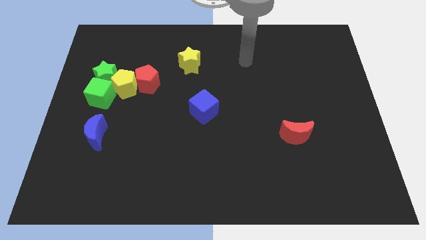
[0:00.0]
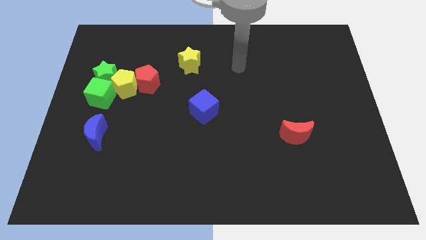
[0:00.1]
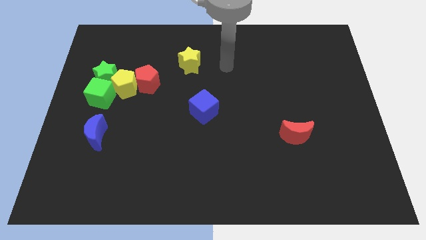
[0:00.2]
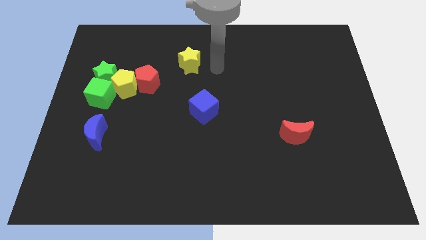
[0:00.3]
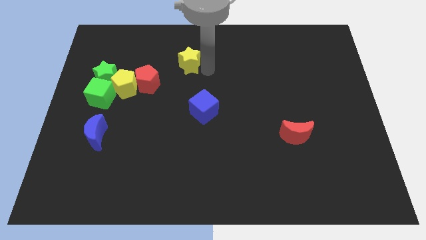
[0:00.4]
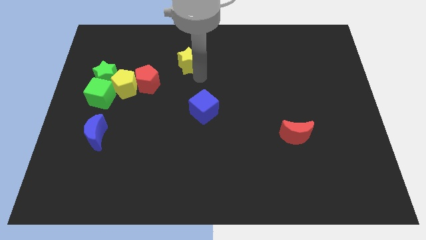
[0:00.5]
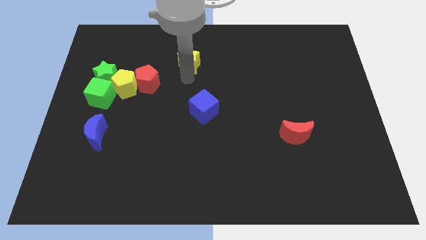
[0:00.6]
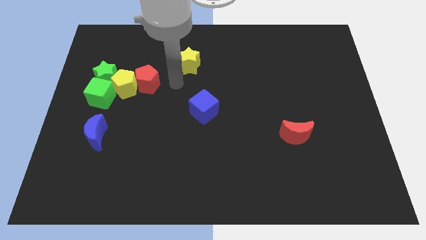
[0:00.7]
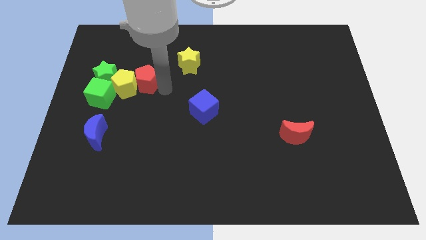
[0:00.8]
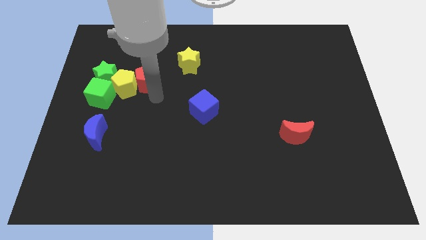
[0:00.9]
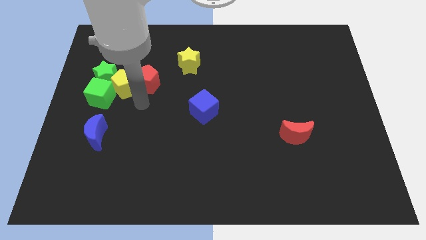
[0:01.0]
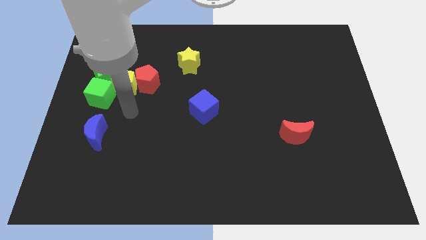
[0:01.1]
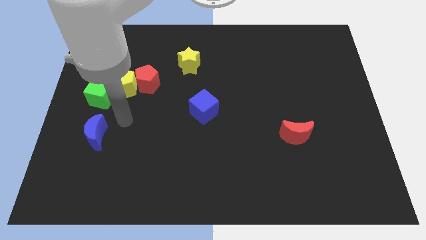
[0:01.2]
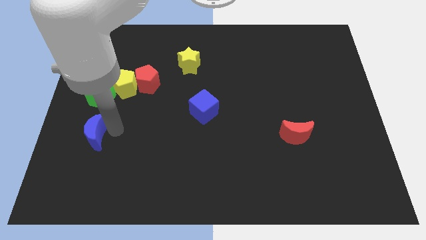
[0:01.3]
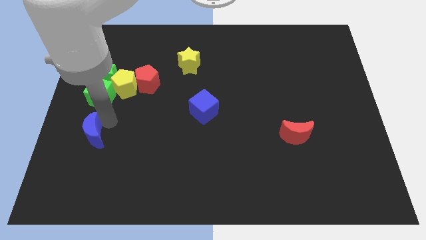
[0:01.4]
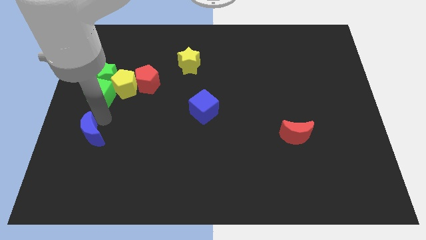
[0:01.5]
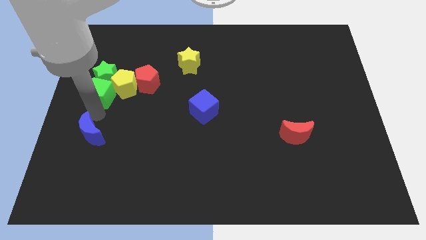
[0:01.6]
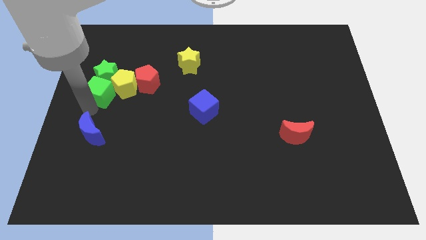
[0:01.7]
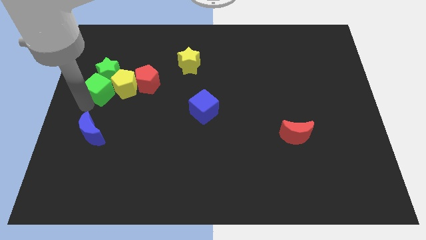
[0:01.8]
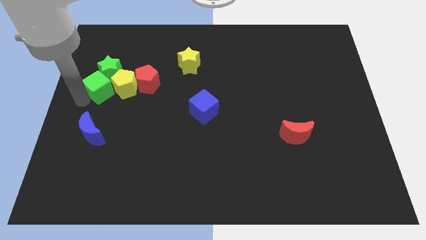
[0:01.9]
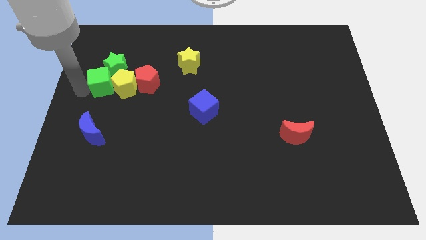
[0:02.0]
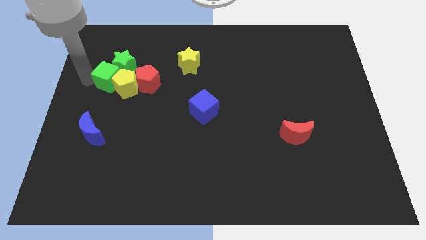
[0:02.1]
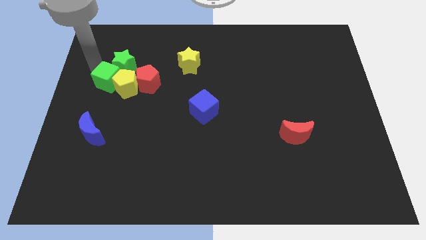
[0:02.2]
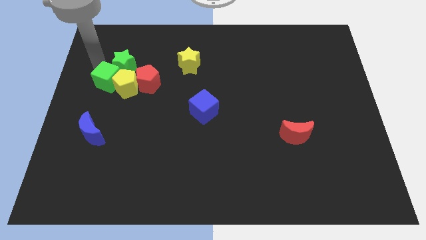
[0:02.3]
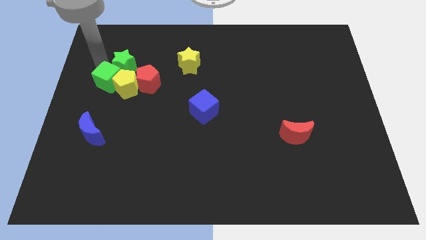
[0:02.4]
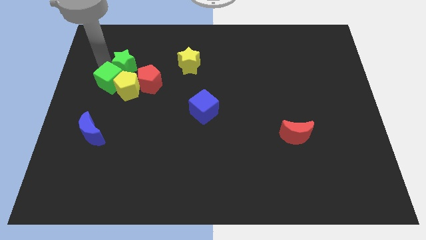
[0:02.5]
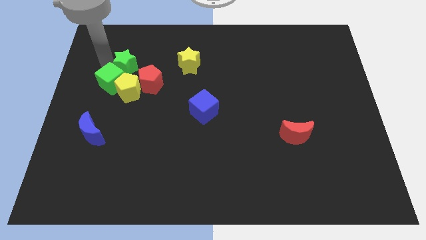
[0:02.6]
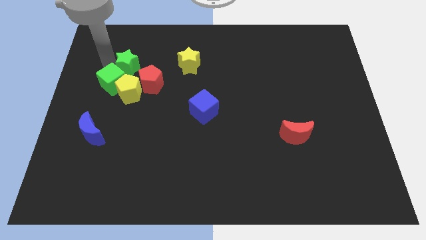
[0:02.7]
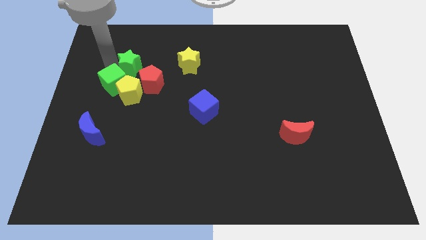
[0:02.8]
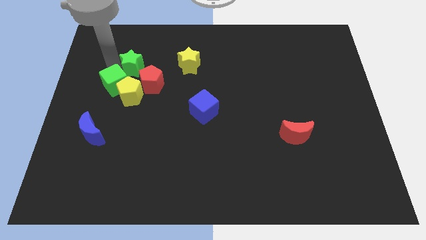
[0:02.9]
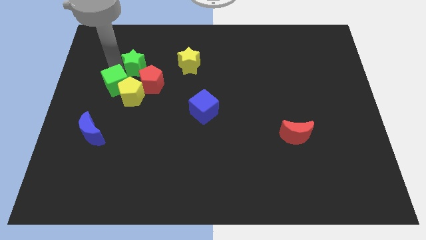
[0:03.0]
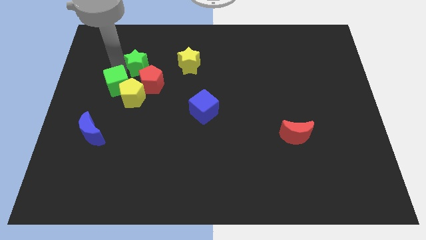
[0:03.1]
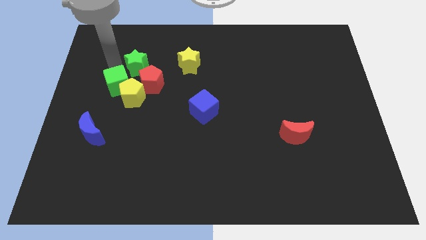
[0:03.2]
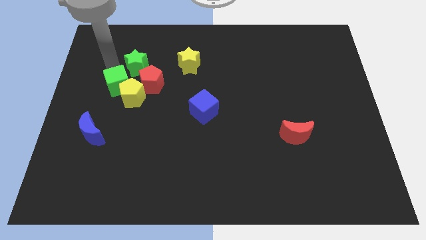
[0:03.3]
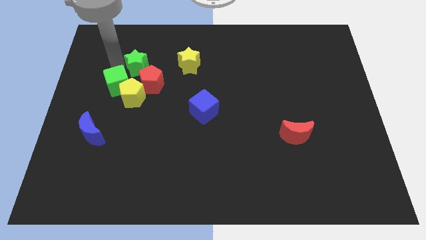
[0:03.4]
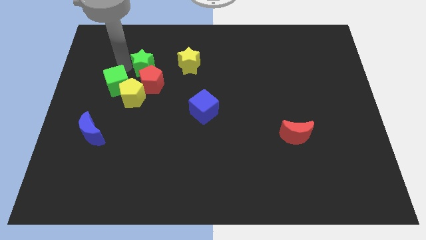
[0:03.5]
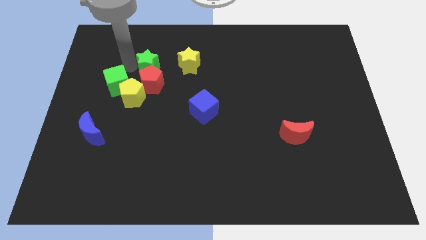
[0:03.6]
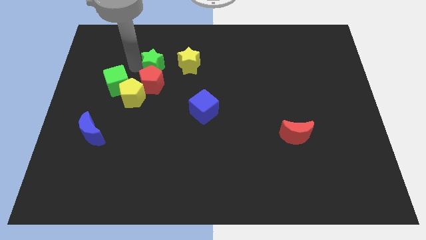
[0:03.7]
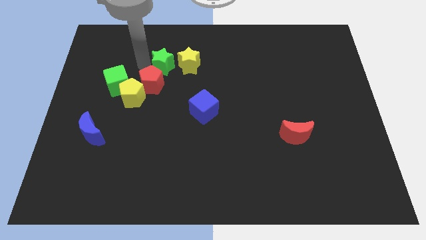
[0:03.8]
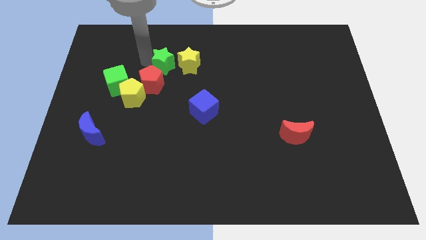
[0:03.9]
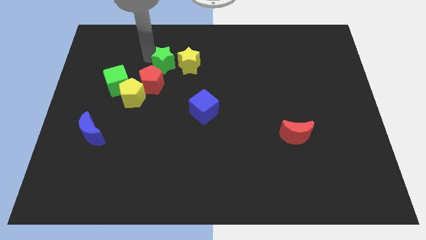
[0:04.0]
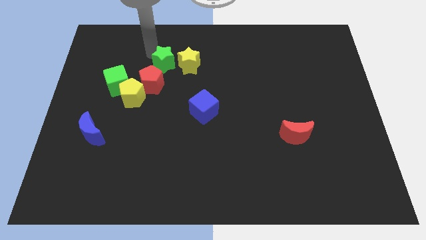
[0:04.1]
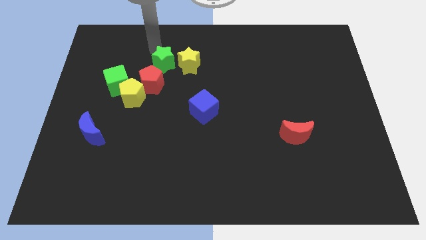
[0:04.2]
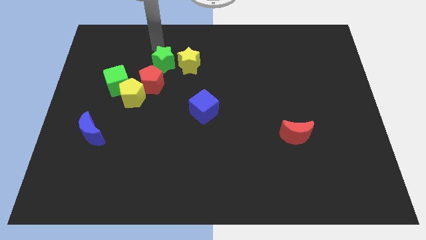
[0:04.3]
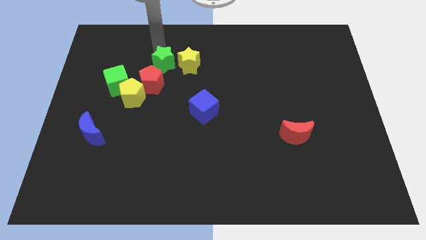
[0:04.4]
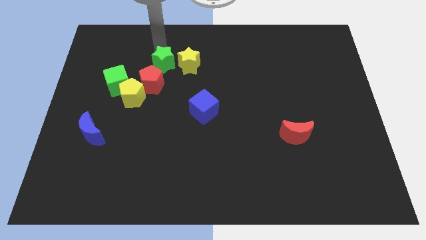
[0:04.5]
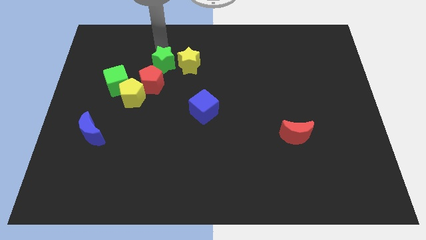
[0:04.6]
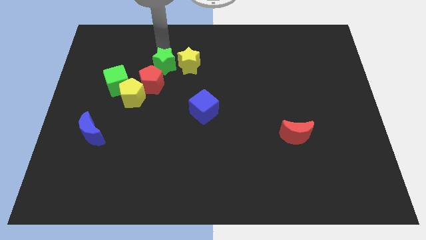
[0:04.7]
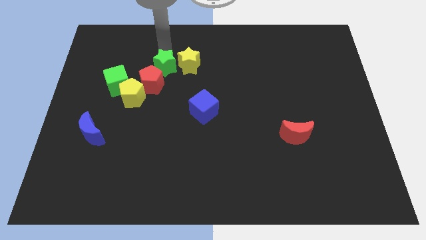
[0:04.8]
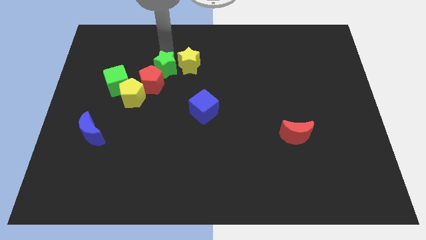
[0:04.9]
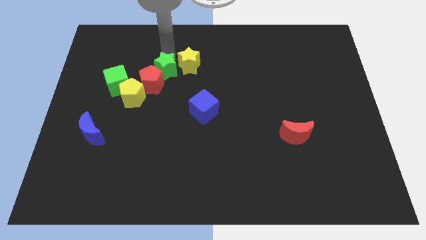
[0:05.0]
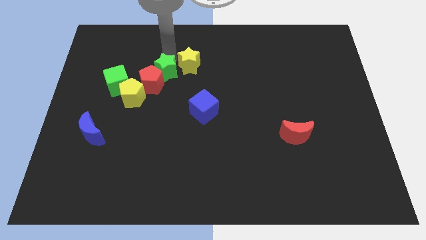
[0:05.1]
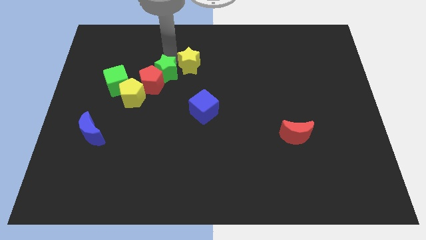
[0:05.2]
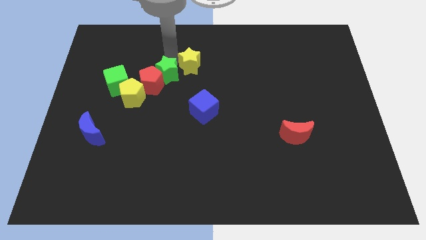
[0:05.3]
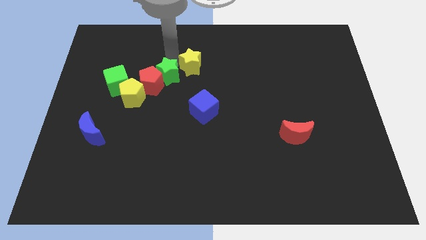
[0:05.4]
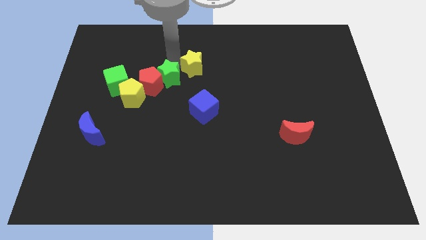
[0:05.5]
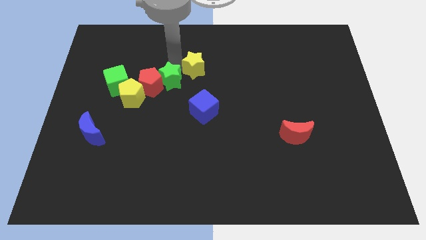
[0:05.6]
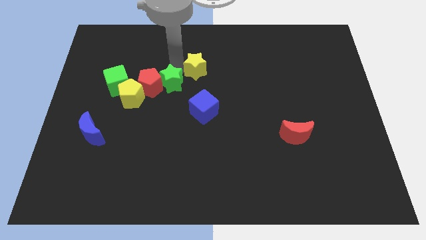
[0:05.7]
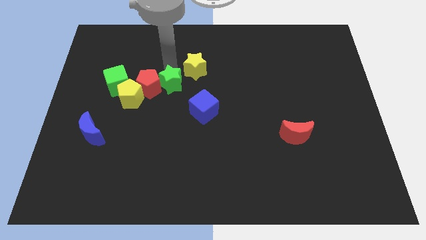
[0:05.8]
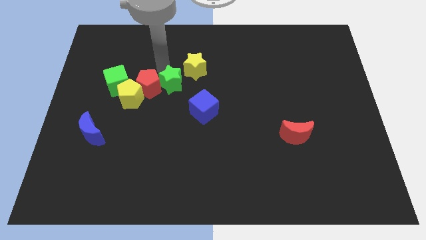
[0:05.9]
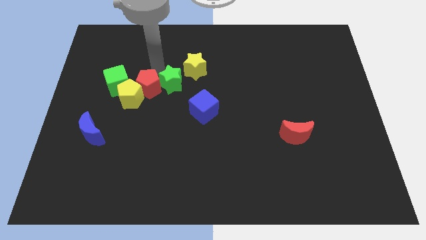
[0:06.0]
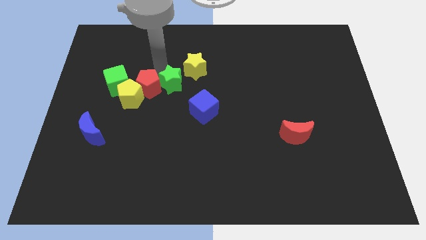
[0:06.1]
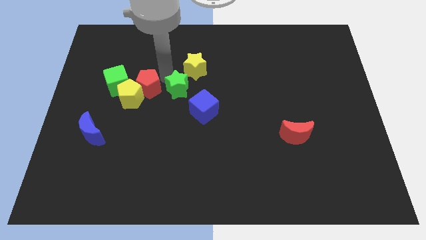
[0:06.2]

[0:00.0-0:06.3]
slide the green star below the yellow star

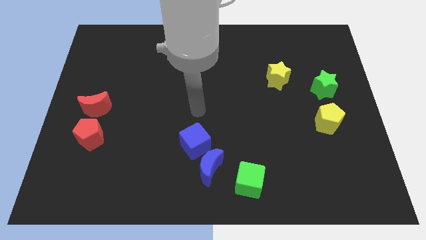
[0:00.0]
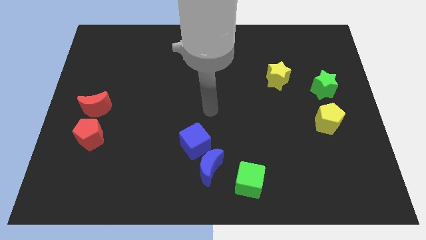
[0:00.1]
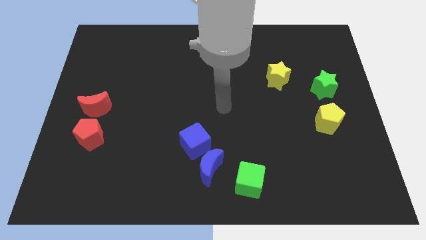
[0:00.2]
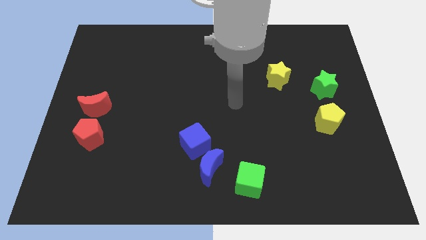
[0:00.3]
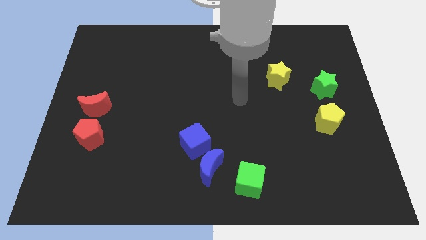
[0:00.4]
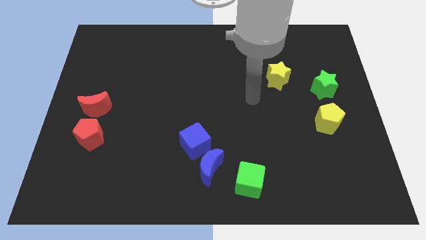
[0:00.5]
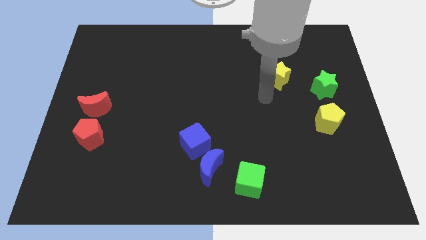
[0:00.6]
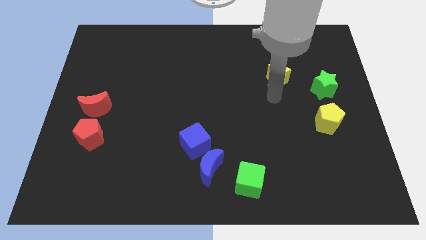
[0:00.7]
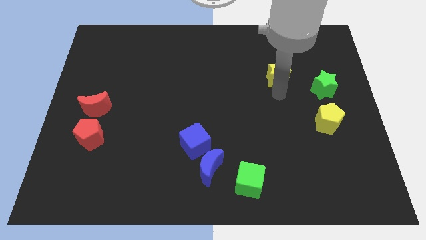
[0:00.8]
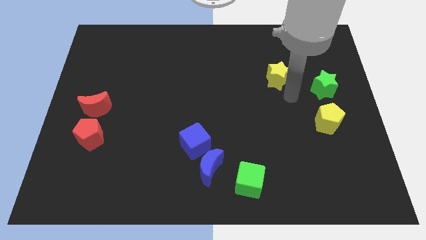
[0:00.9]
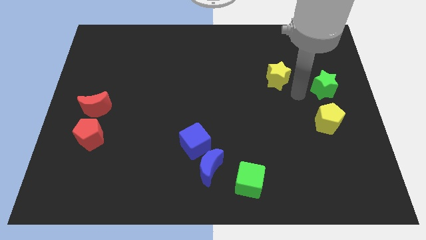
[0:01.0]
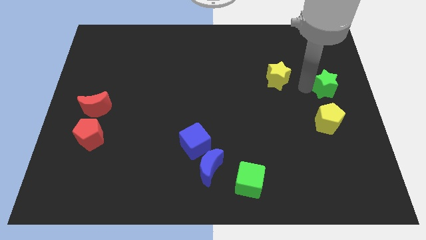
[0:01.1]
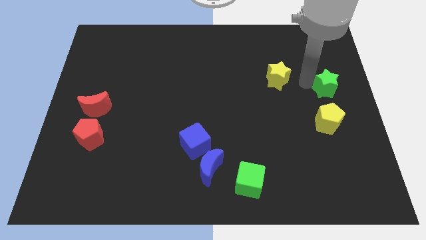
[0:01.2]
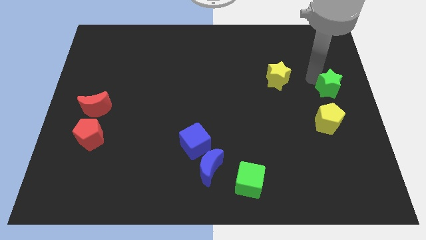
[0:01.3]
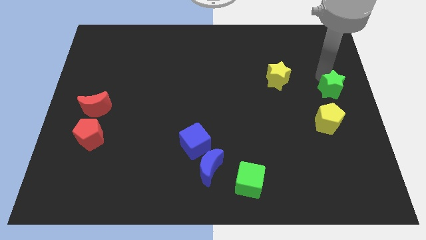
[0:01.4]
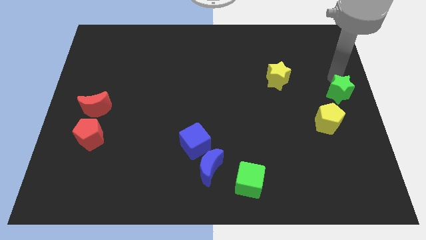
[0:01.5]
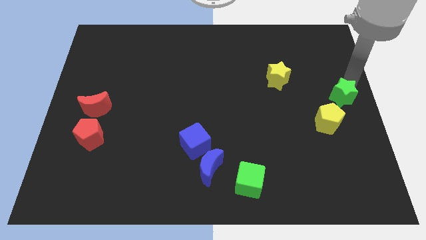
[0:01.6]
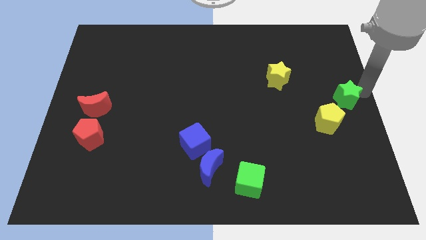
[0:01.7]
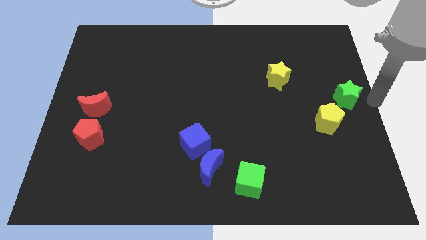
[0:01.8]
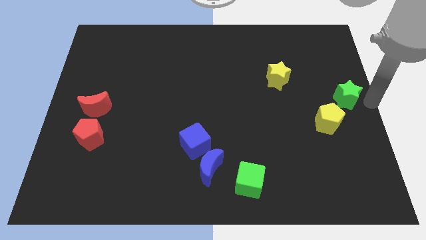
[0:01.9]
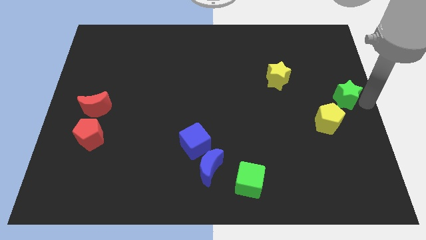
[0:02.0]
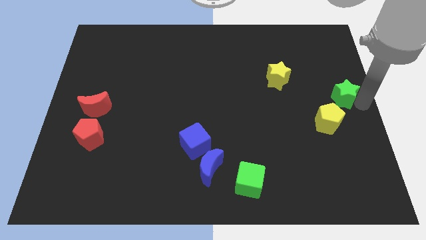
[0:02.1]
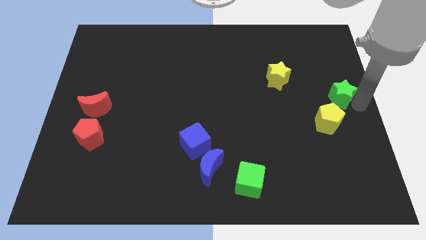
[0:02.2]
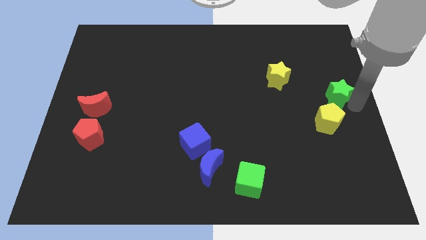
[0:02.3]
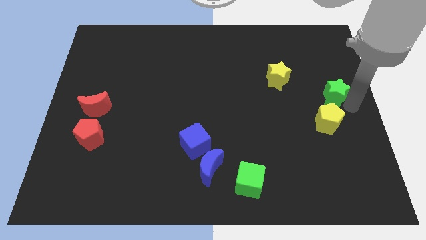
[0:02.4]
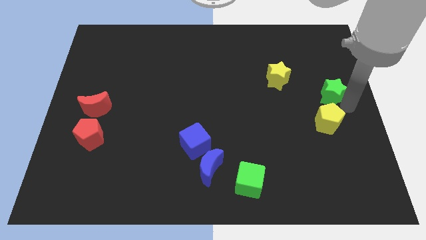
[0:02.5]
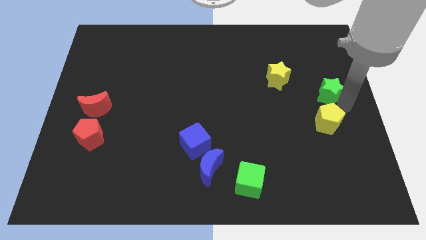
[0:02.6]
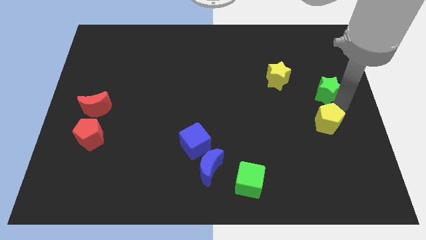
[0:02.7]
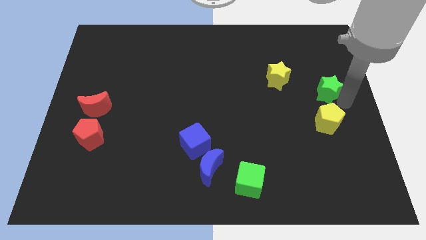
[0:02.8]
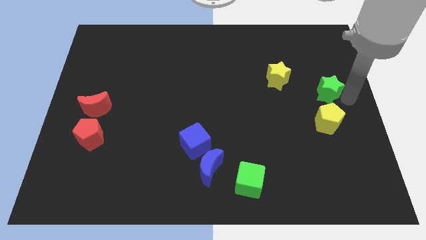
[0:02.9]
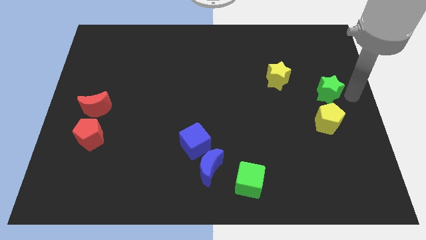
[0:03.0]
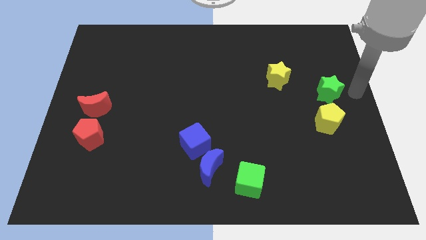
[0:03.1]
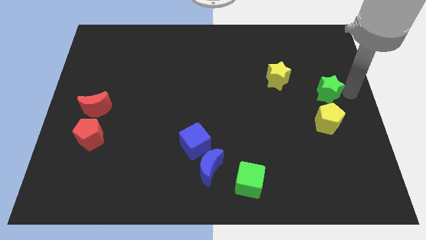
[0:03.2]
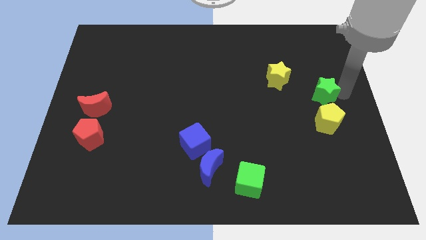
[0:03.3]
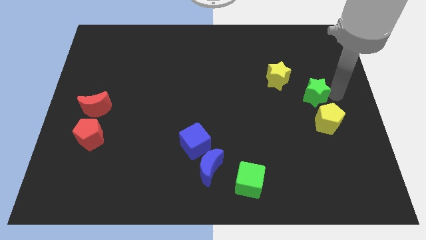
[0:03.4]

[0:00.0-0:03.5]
put the green star diagonally down and to the right of the yellow star
